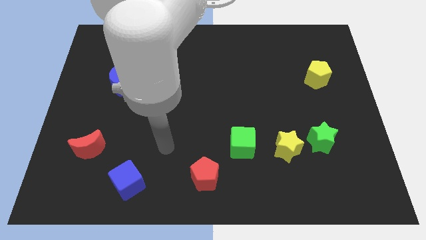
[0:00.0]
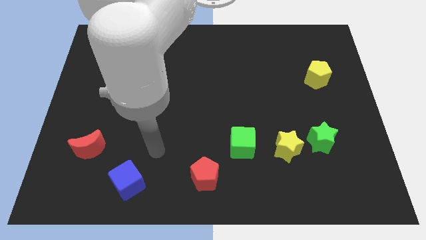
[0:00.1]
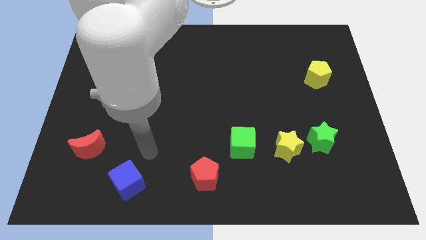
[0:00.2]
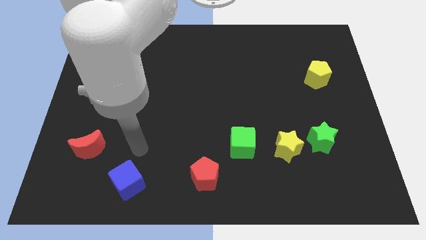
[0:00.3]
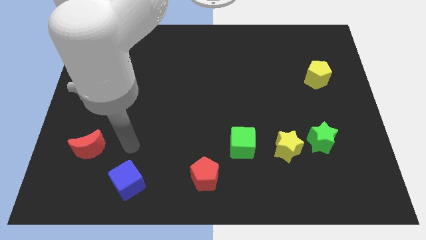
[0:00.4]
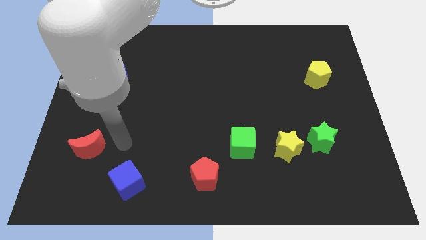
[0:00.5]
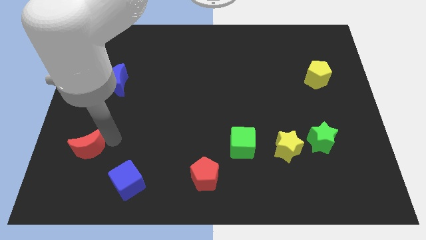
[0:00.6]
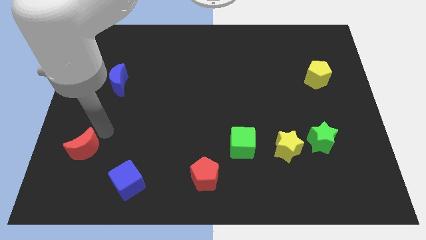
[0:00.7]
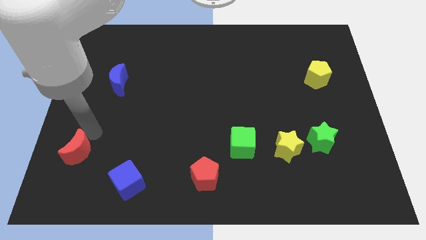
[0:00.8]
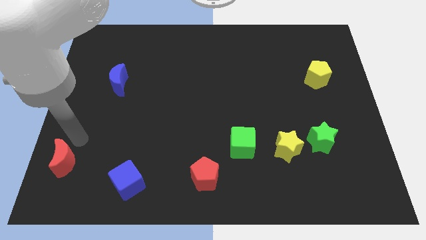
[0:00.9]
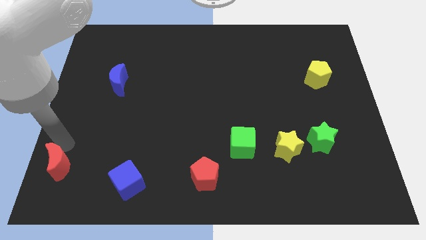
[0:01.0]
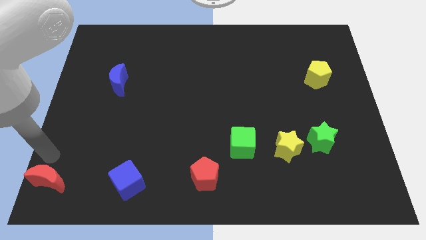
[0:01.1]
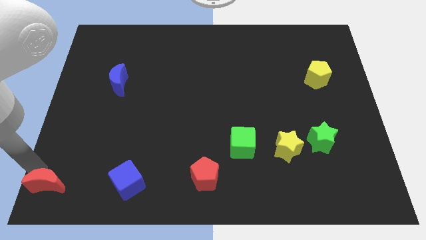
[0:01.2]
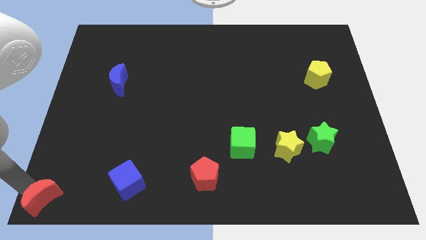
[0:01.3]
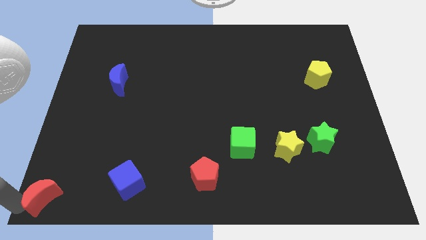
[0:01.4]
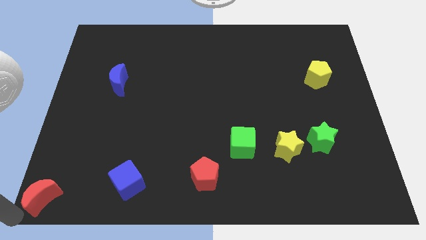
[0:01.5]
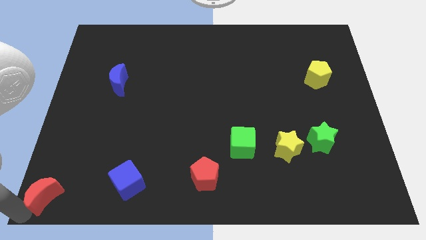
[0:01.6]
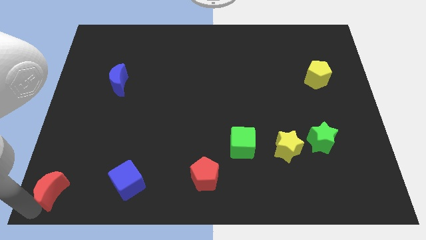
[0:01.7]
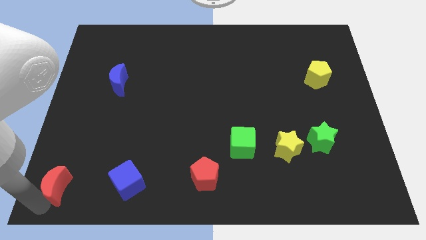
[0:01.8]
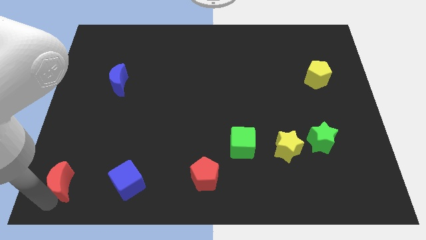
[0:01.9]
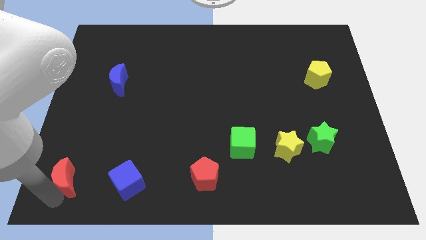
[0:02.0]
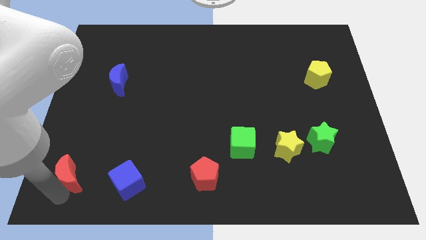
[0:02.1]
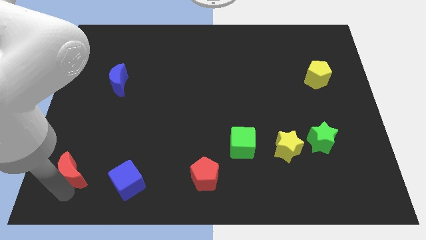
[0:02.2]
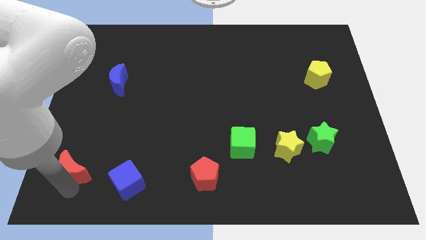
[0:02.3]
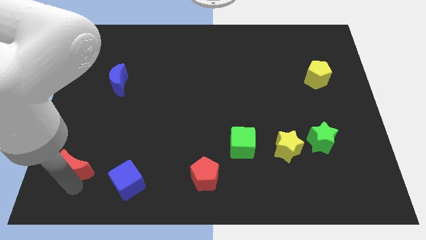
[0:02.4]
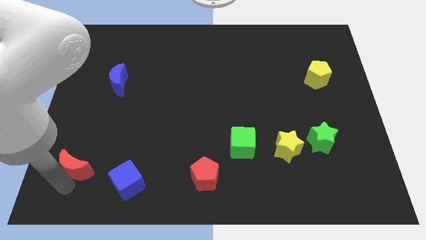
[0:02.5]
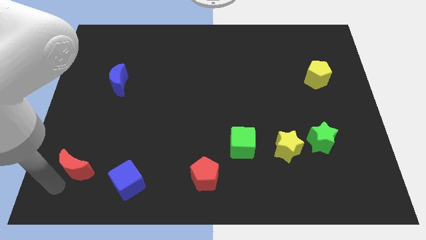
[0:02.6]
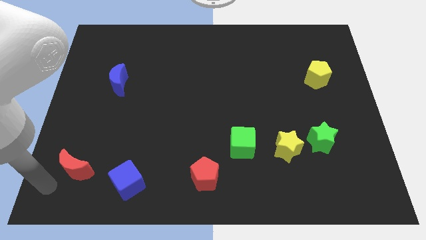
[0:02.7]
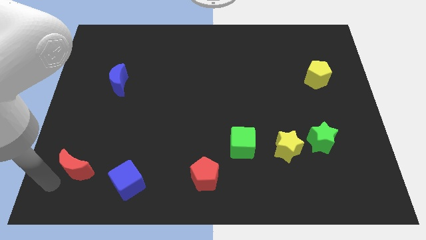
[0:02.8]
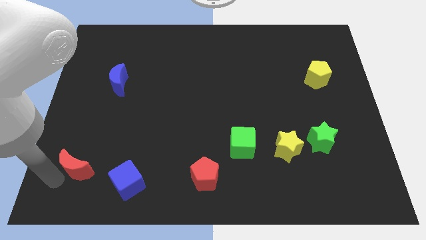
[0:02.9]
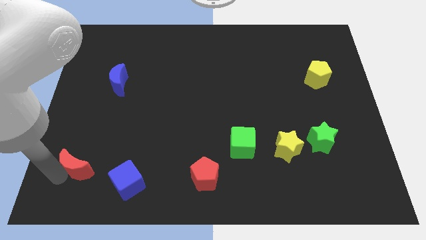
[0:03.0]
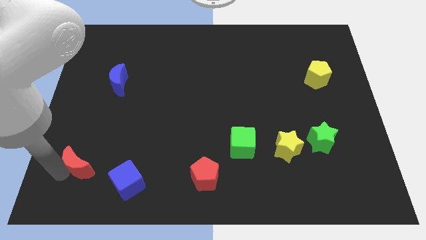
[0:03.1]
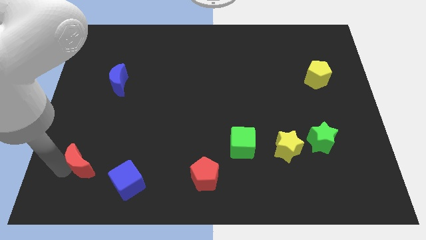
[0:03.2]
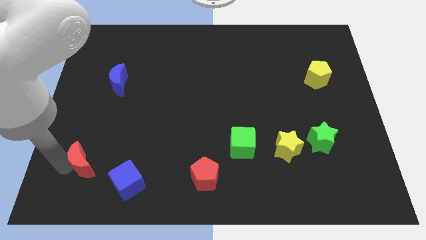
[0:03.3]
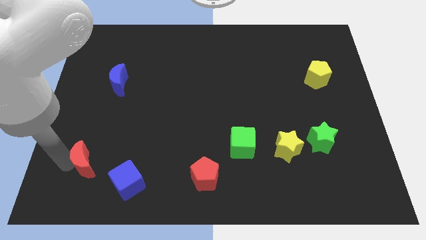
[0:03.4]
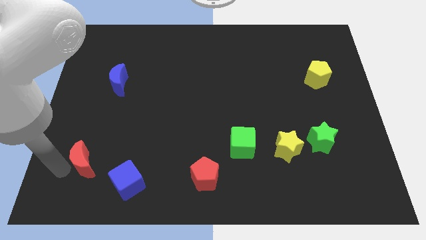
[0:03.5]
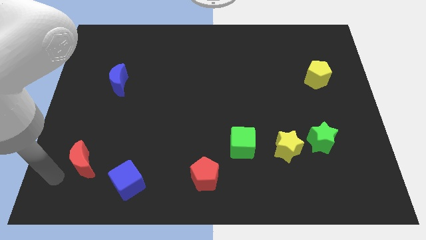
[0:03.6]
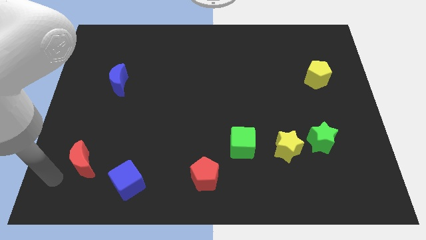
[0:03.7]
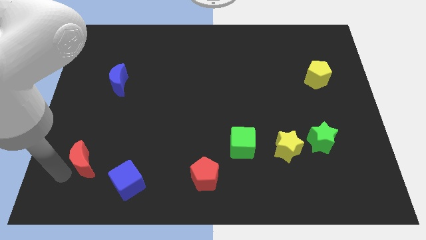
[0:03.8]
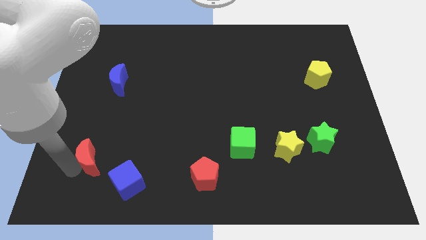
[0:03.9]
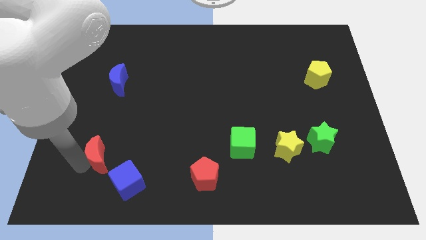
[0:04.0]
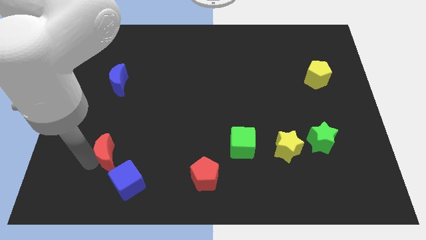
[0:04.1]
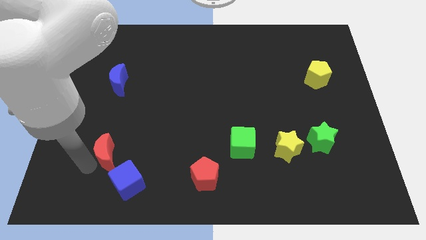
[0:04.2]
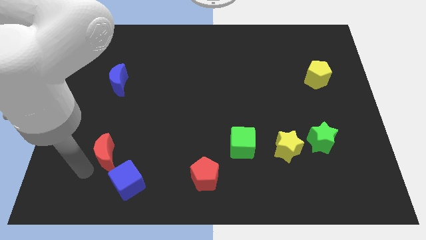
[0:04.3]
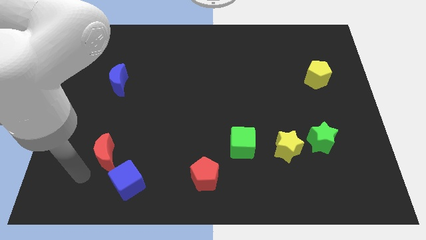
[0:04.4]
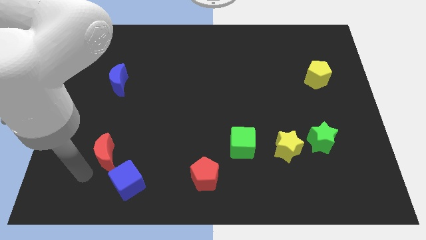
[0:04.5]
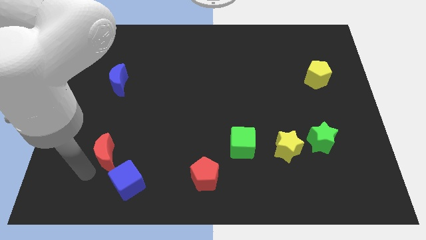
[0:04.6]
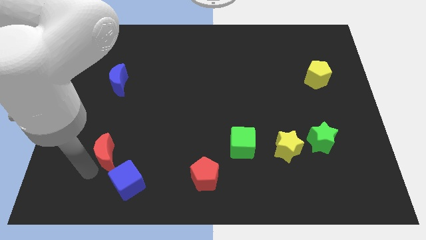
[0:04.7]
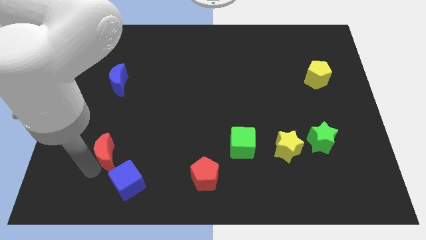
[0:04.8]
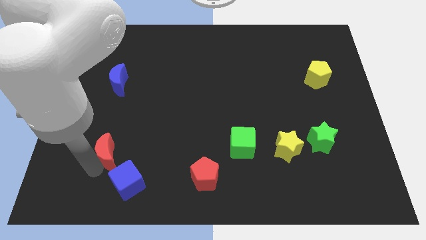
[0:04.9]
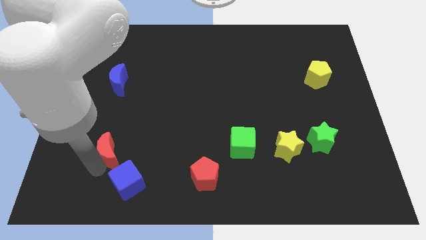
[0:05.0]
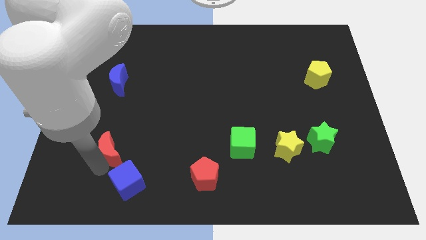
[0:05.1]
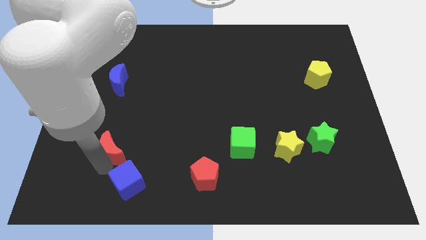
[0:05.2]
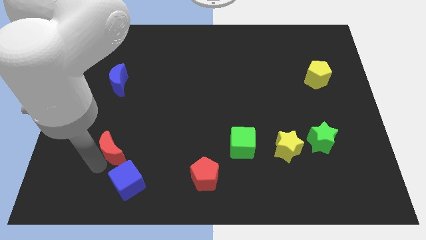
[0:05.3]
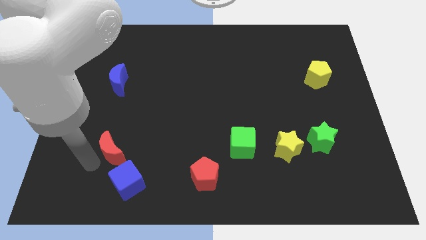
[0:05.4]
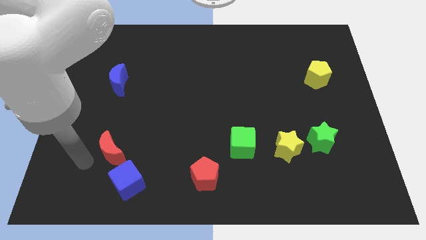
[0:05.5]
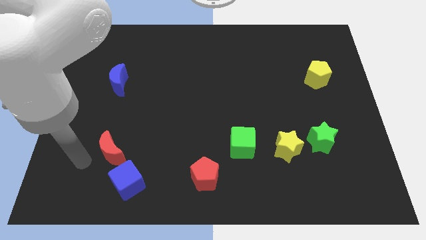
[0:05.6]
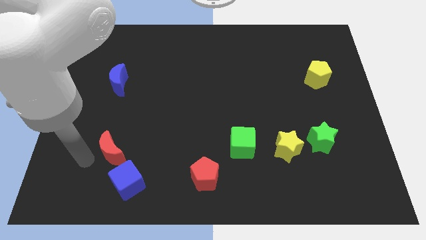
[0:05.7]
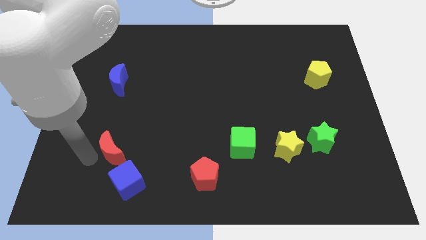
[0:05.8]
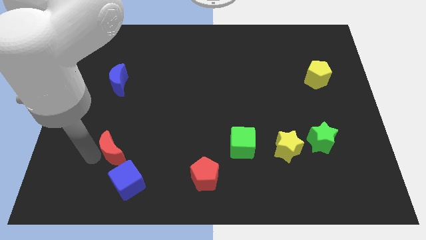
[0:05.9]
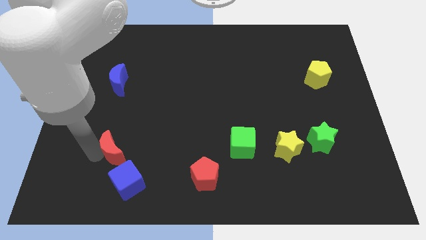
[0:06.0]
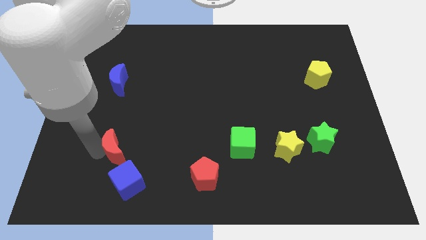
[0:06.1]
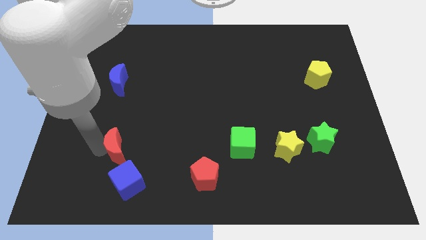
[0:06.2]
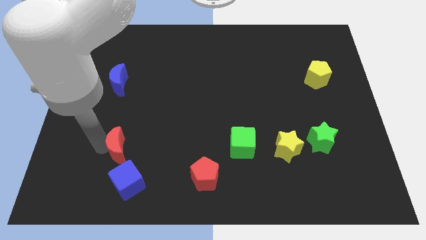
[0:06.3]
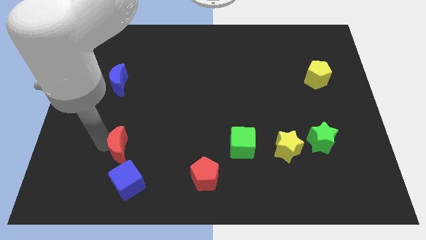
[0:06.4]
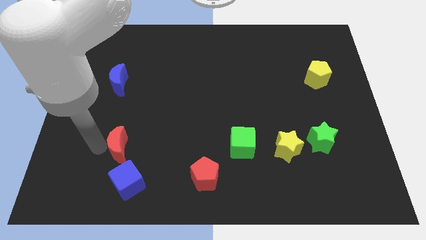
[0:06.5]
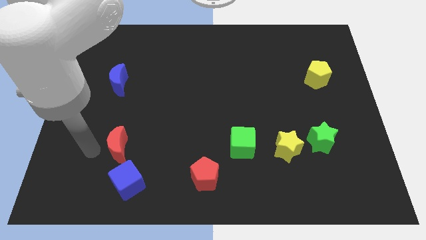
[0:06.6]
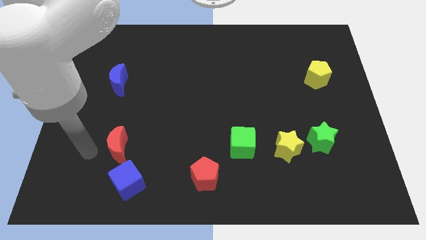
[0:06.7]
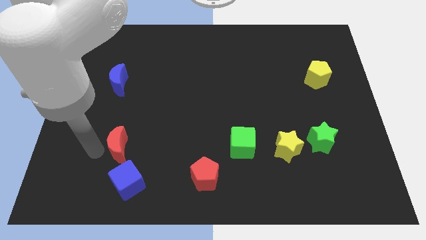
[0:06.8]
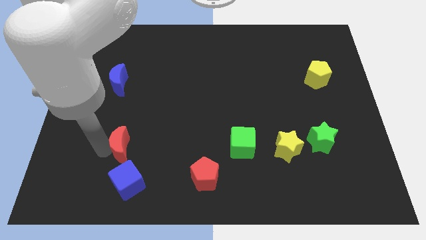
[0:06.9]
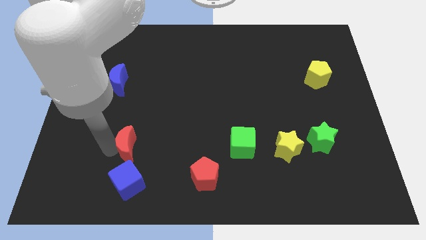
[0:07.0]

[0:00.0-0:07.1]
slightly move the red moon right

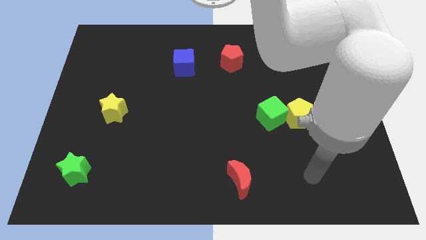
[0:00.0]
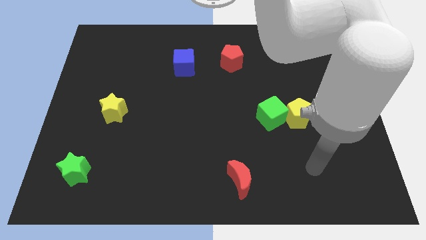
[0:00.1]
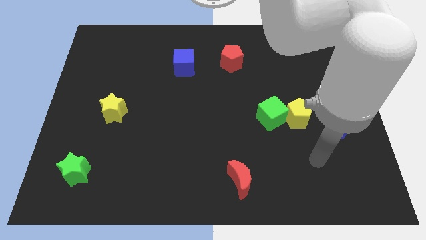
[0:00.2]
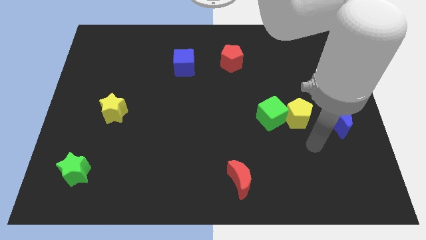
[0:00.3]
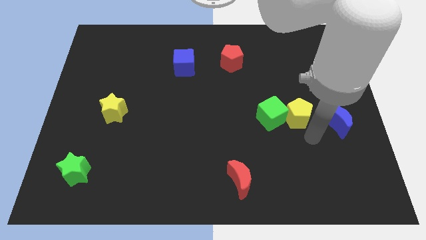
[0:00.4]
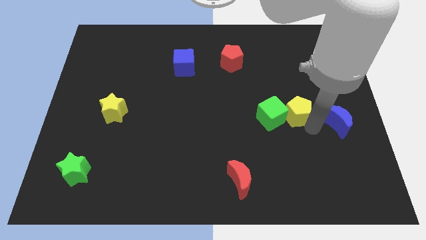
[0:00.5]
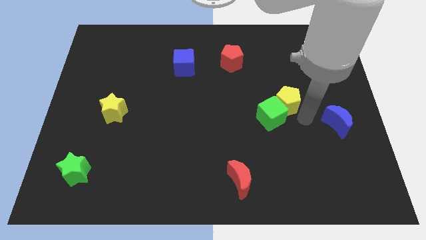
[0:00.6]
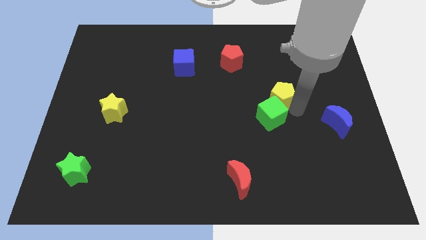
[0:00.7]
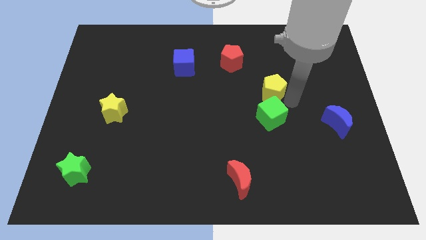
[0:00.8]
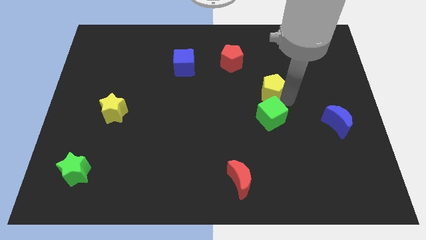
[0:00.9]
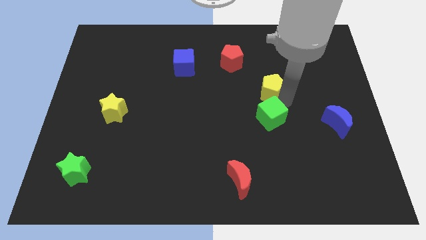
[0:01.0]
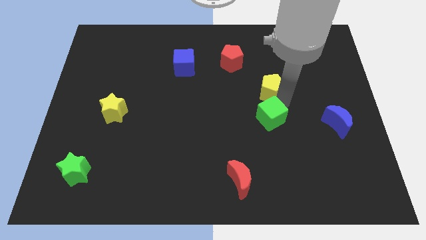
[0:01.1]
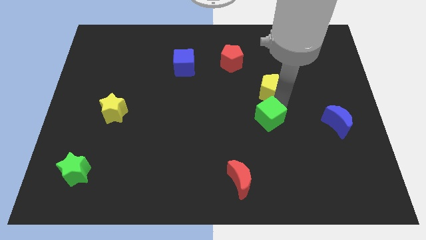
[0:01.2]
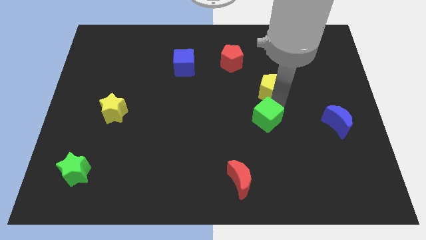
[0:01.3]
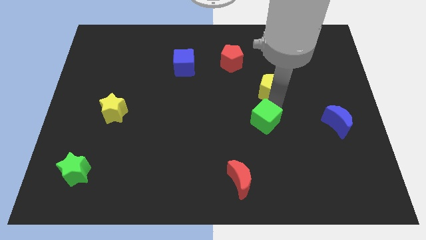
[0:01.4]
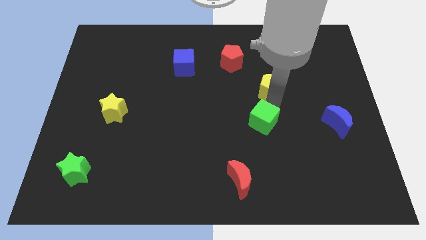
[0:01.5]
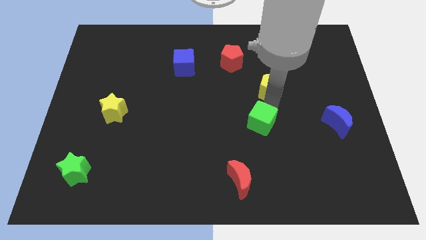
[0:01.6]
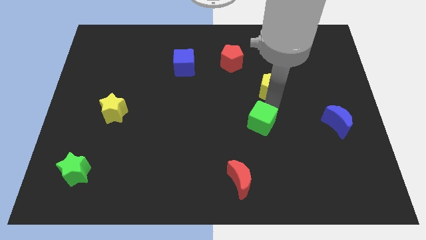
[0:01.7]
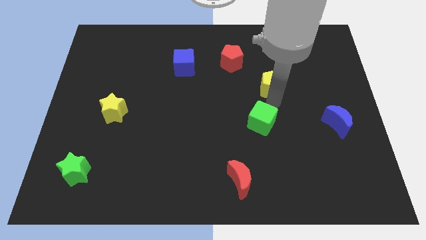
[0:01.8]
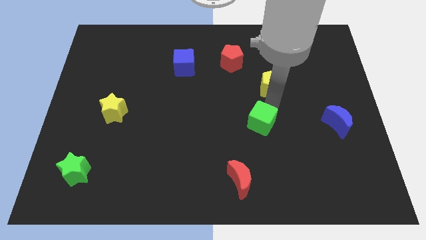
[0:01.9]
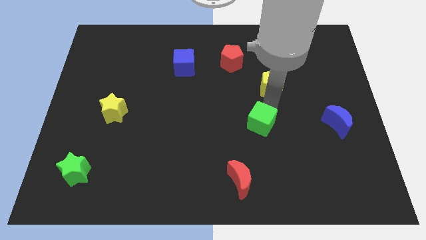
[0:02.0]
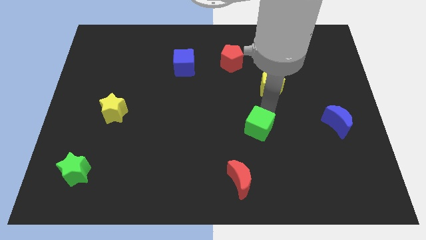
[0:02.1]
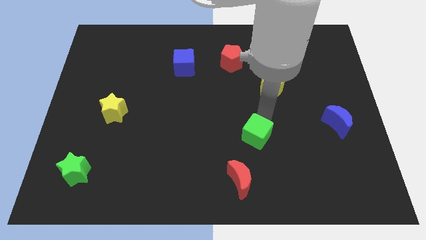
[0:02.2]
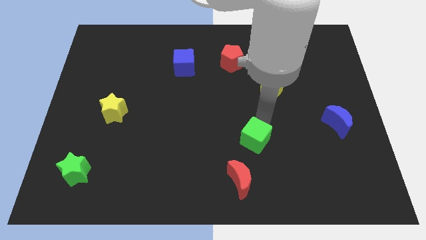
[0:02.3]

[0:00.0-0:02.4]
move the green cube diagonally downwards and left a bit
